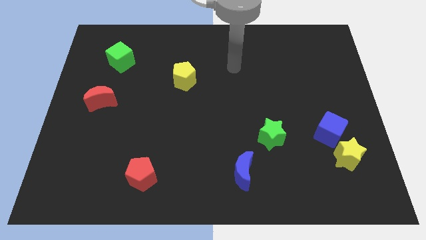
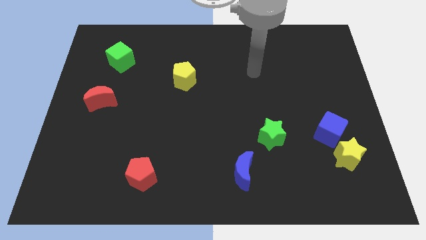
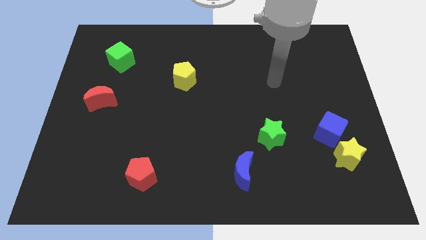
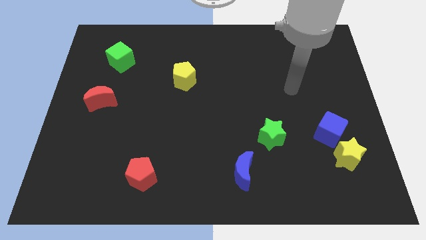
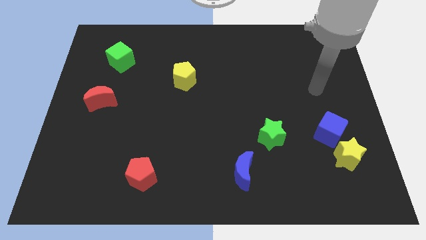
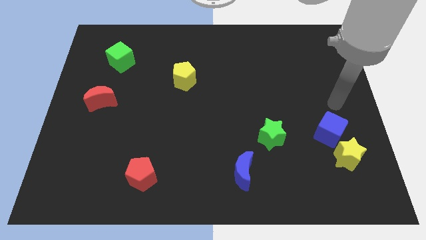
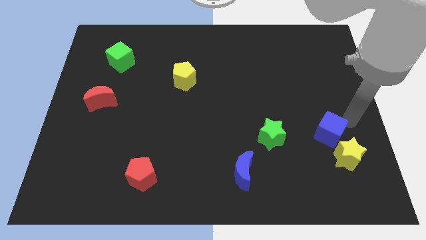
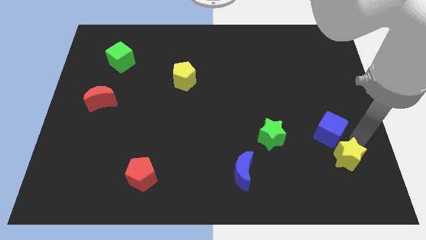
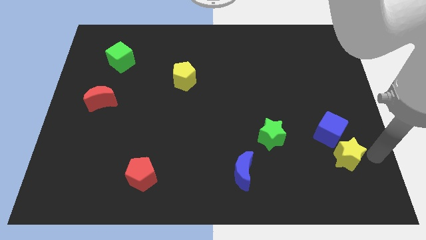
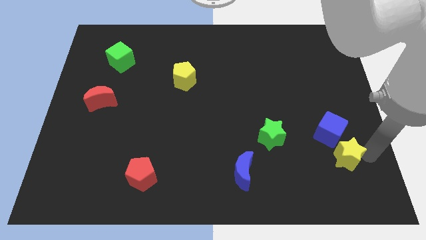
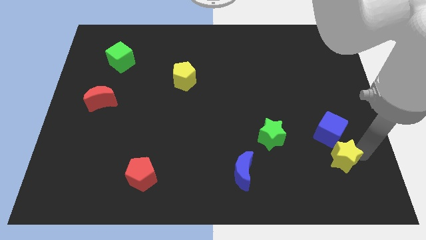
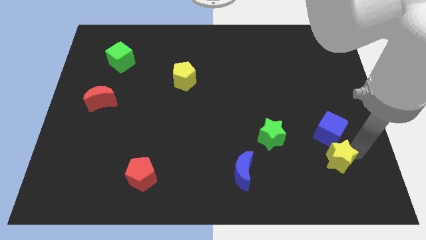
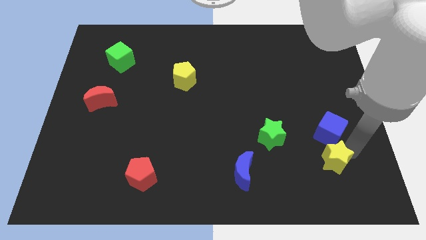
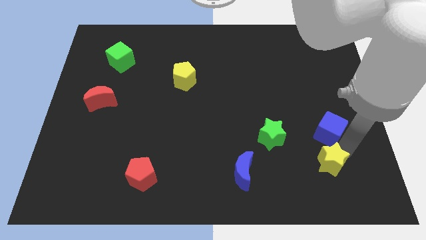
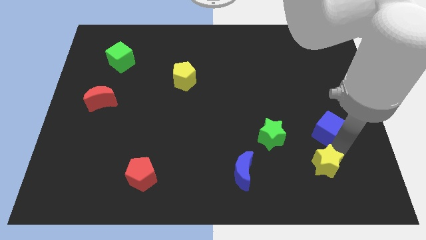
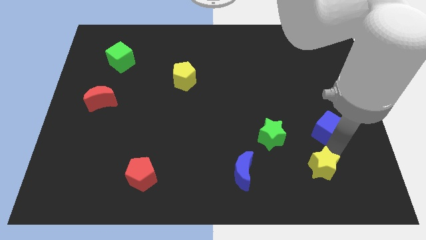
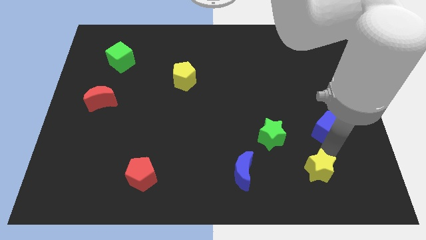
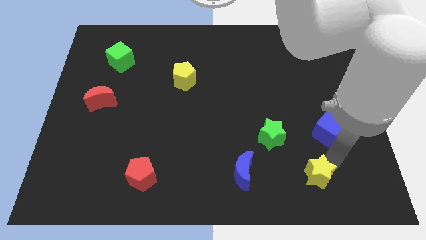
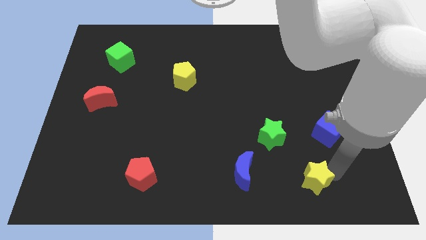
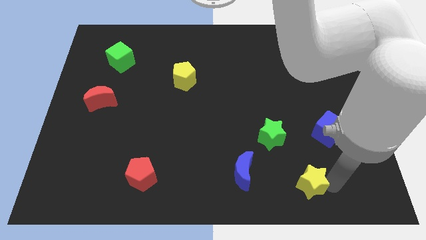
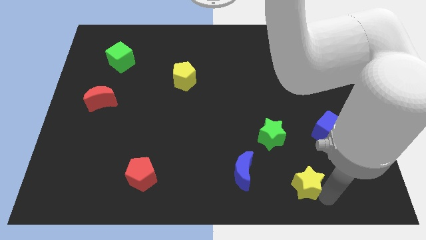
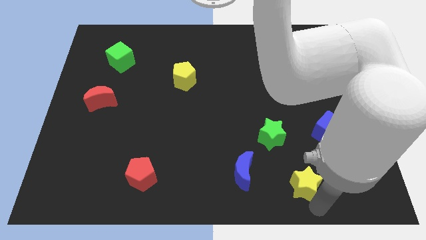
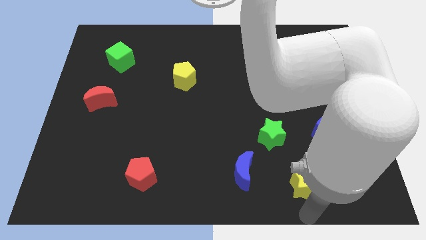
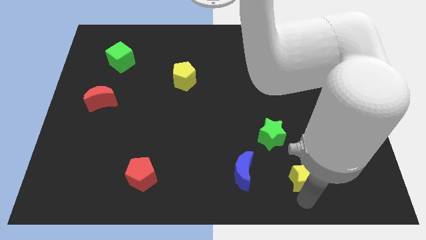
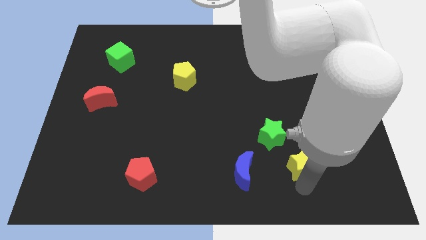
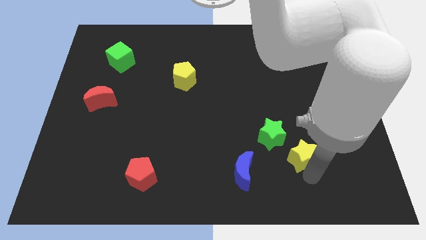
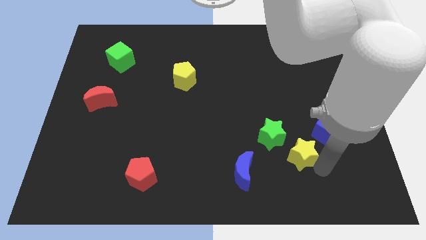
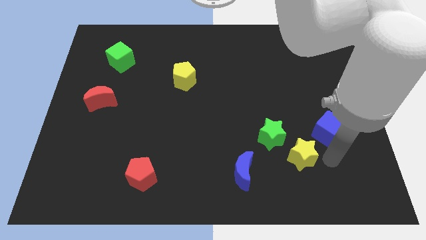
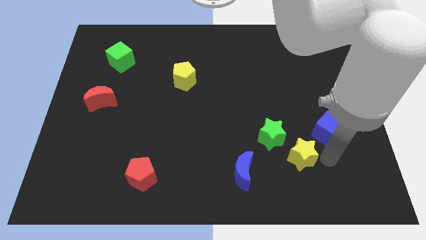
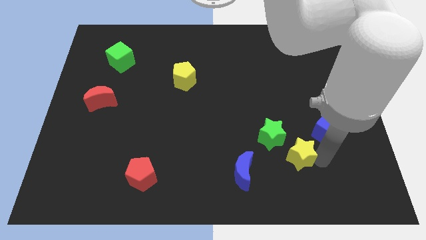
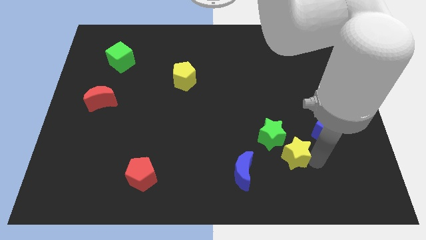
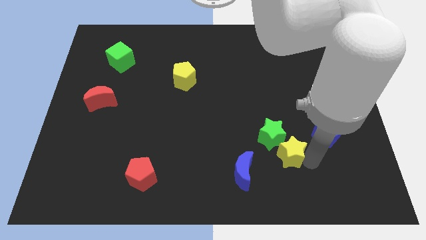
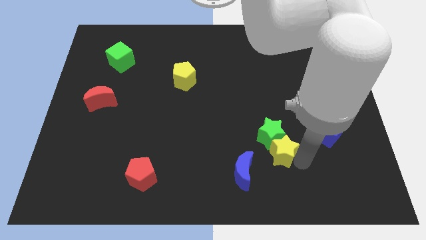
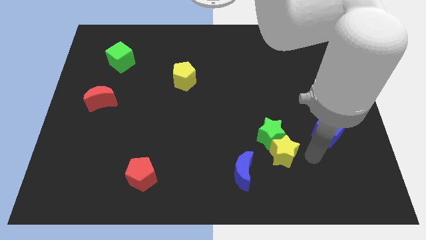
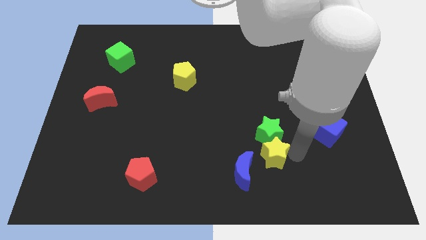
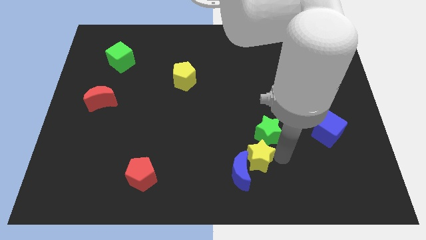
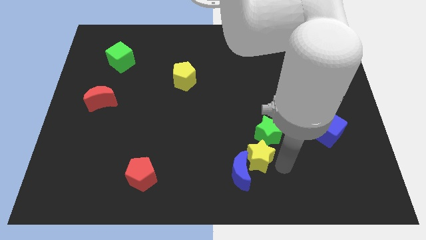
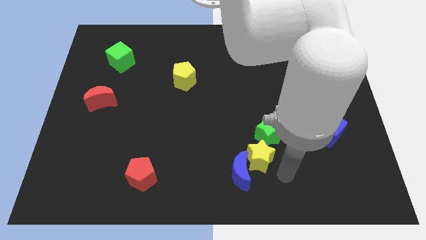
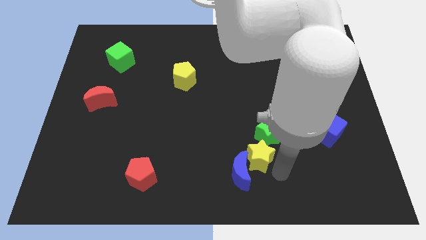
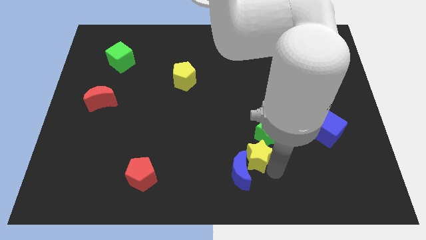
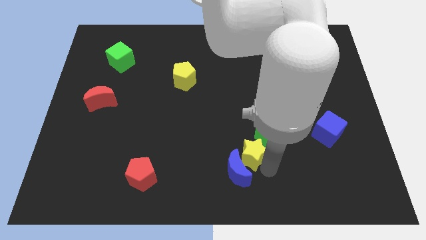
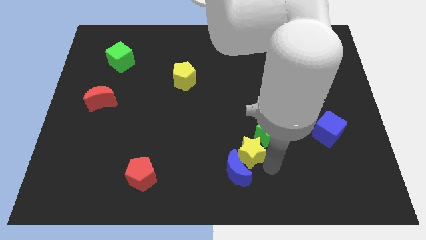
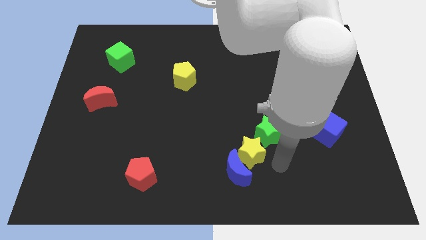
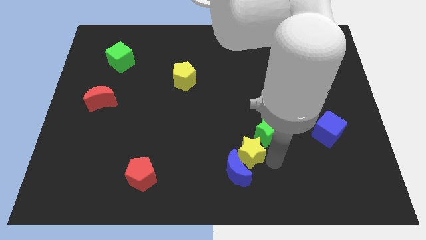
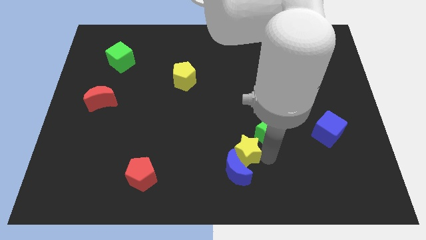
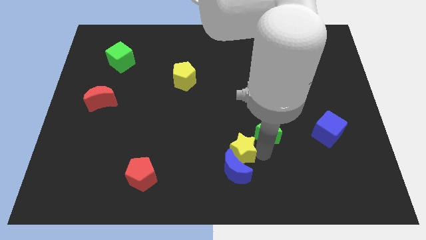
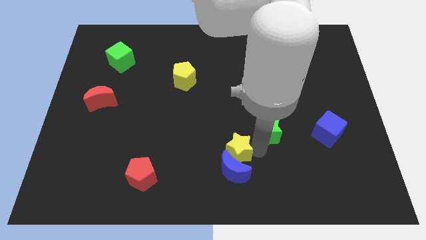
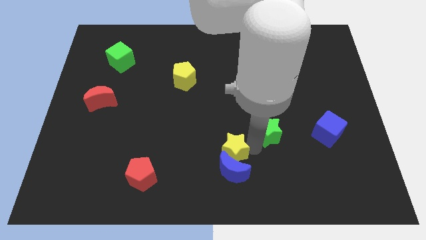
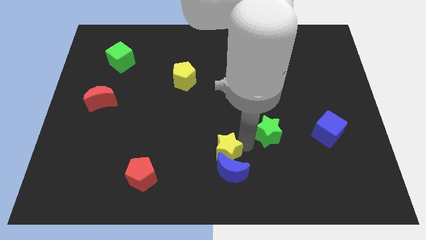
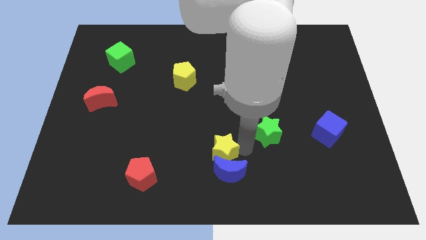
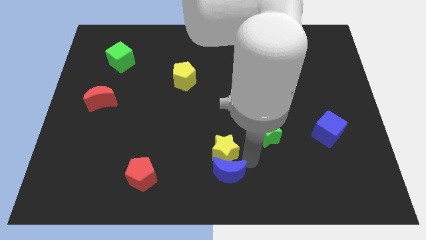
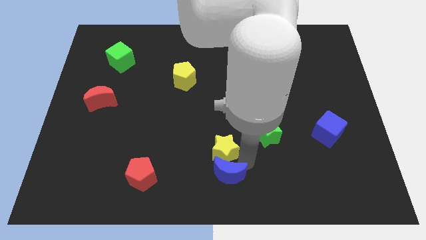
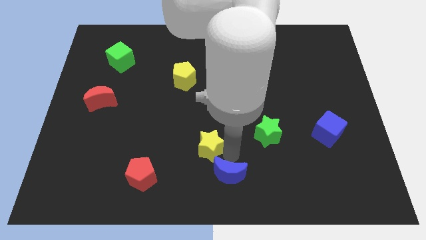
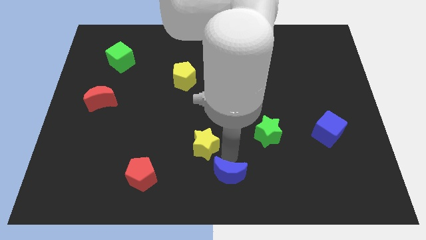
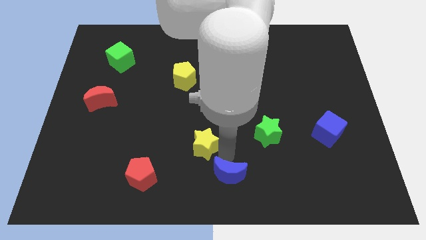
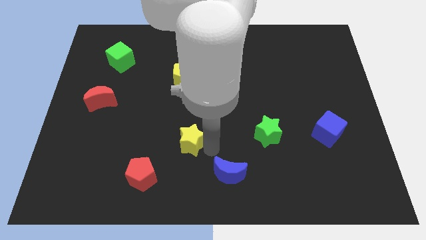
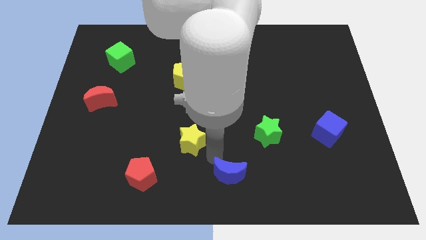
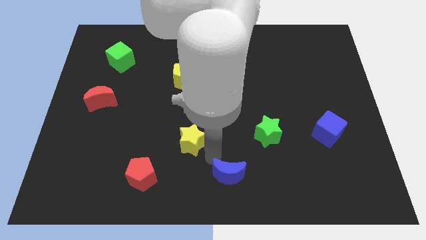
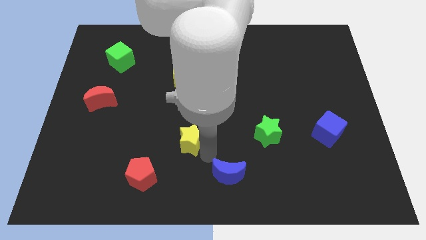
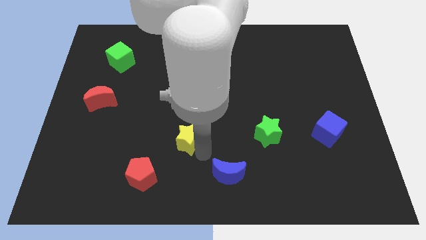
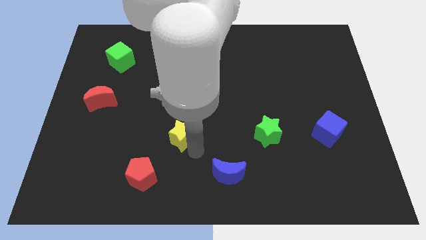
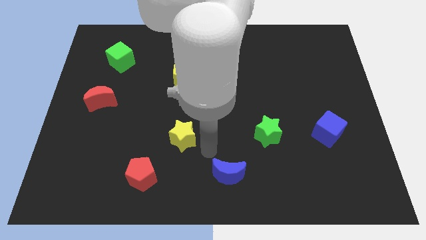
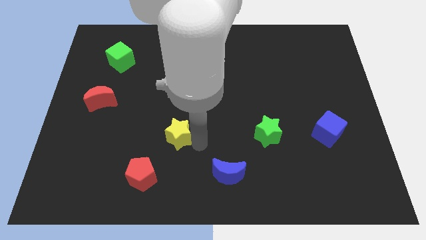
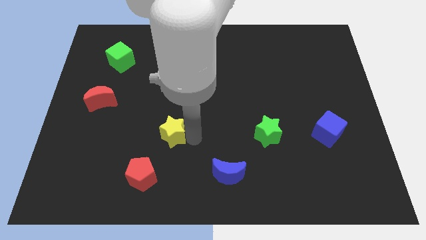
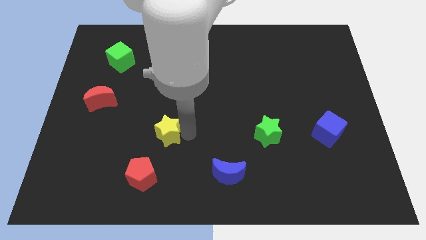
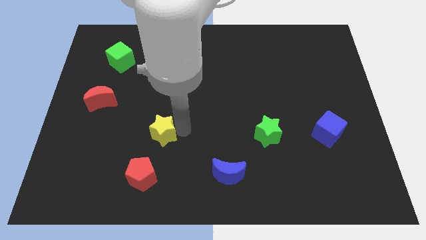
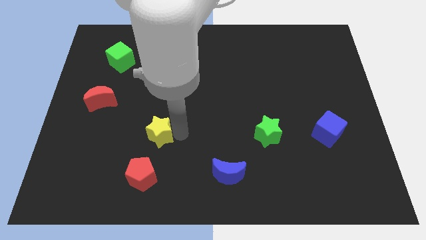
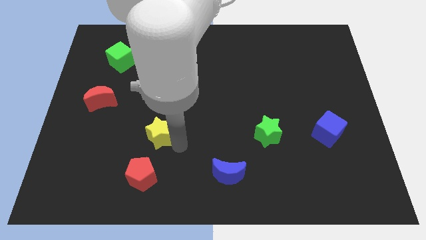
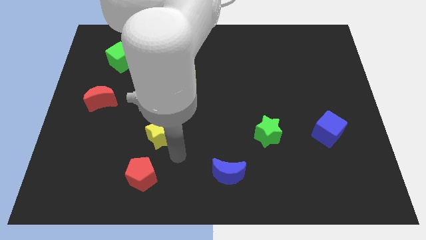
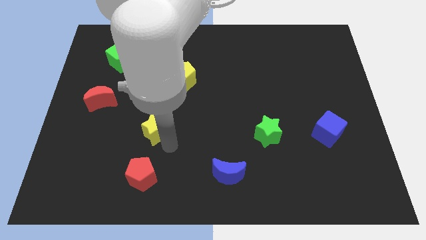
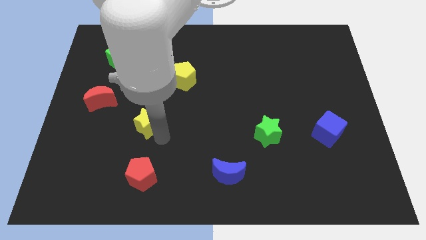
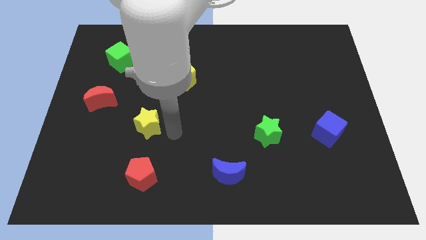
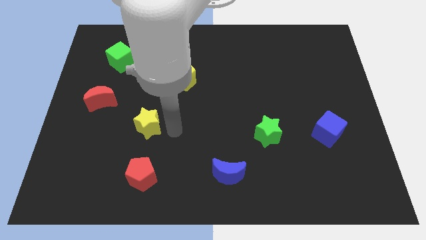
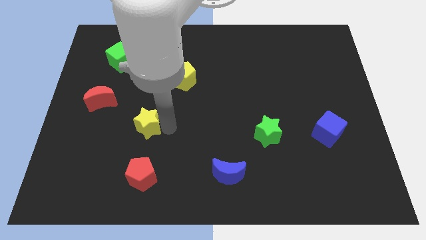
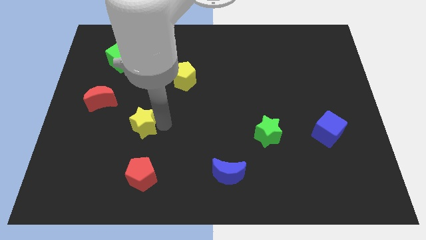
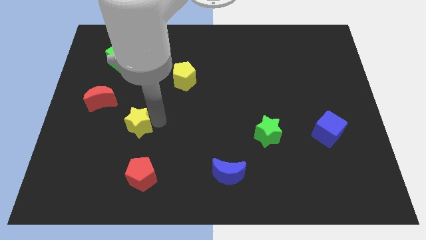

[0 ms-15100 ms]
put the yellow star to the bottom right of the red moon
